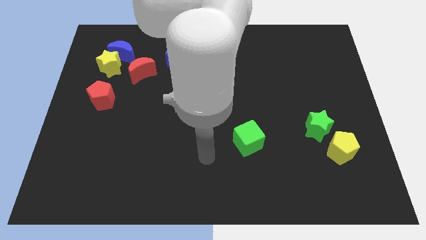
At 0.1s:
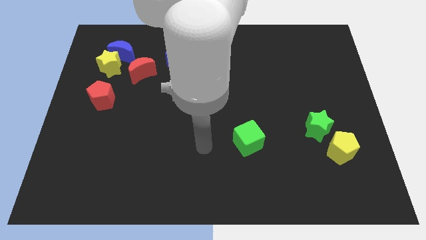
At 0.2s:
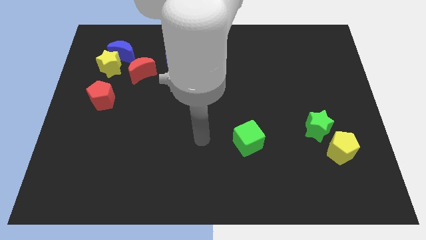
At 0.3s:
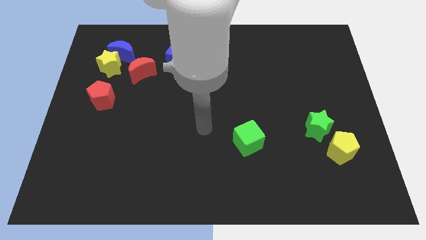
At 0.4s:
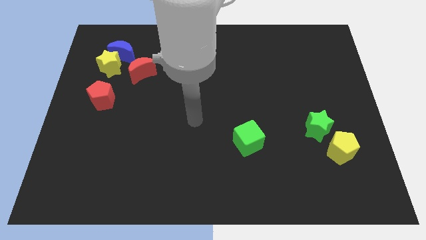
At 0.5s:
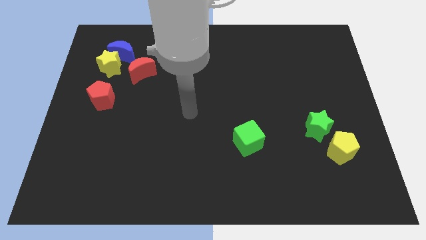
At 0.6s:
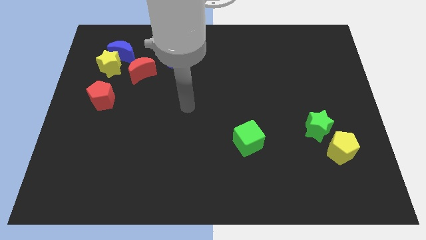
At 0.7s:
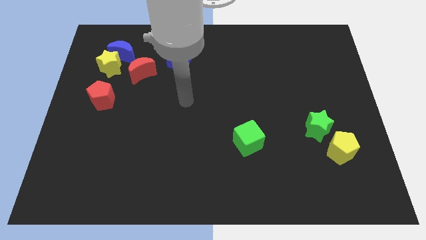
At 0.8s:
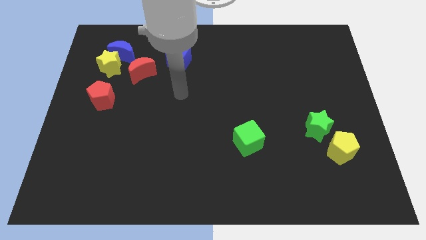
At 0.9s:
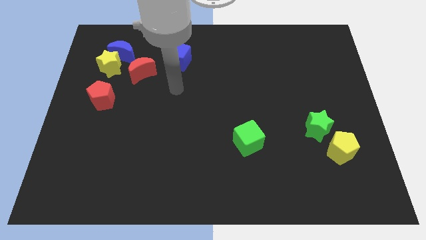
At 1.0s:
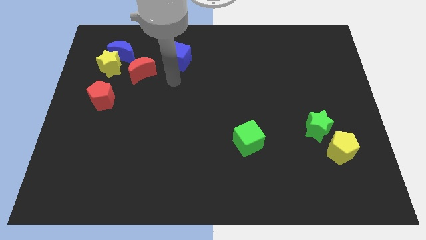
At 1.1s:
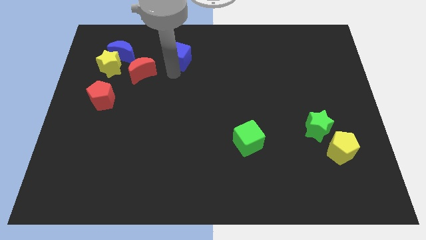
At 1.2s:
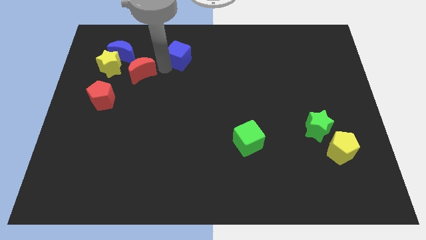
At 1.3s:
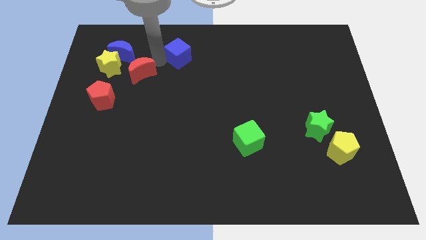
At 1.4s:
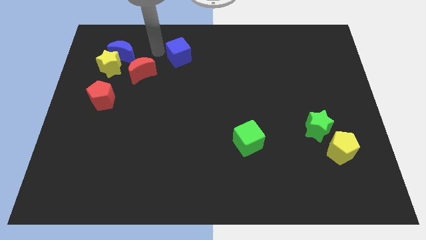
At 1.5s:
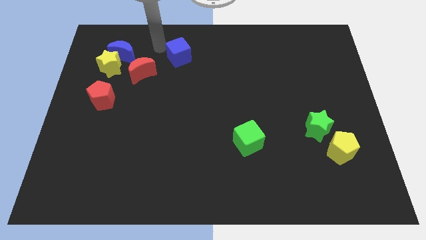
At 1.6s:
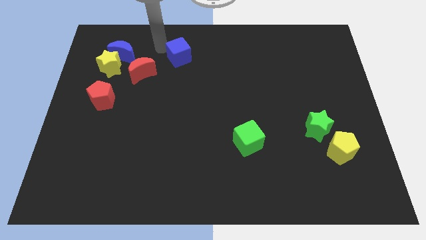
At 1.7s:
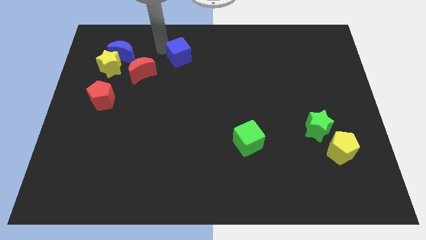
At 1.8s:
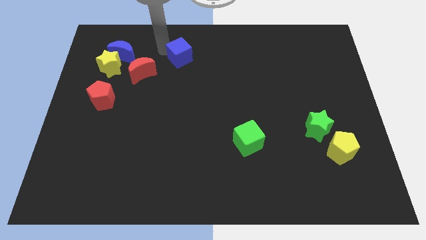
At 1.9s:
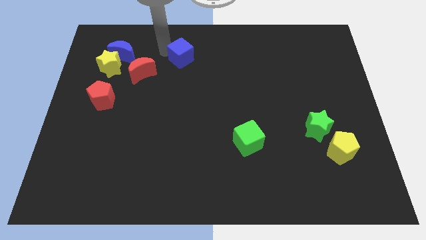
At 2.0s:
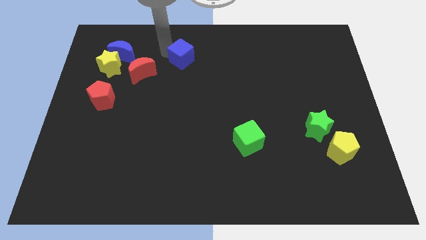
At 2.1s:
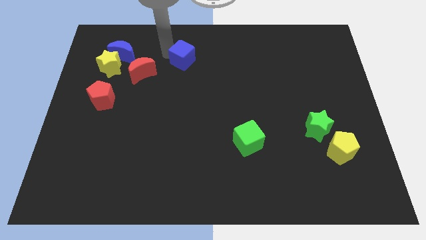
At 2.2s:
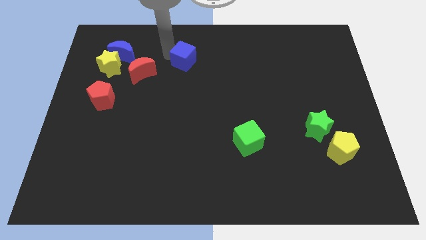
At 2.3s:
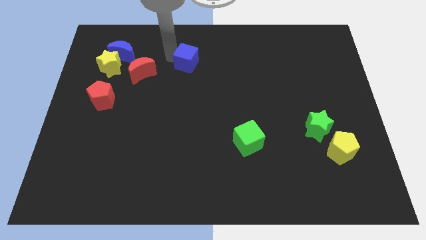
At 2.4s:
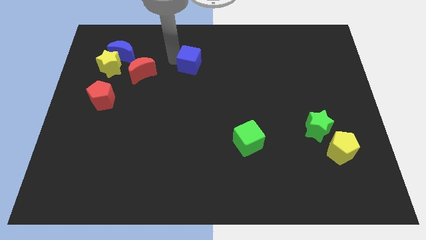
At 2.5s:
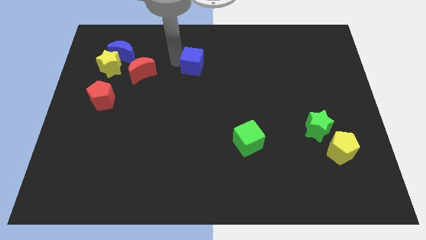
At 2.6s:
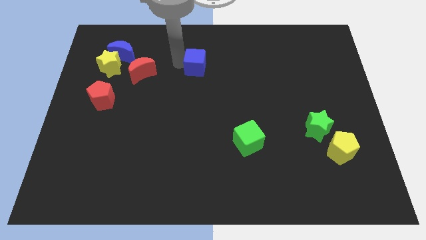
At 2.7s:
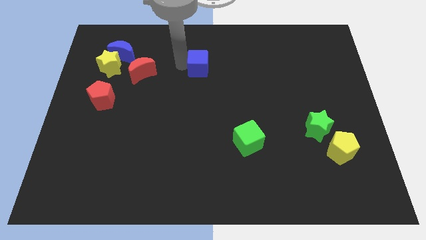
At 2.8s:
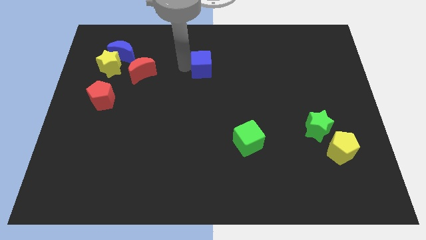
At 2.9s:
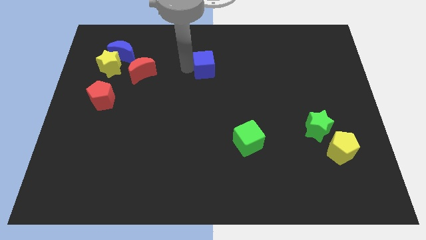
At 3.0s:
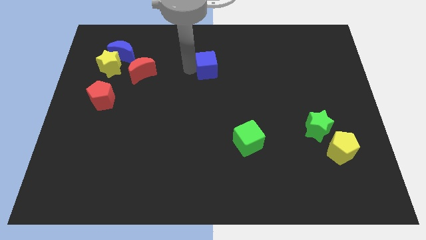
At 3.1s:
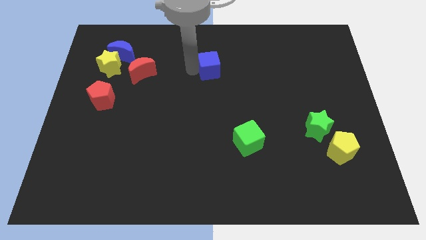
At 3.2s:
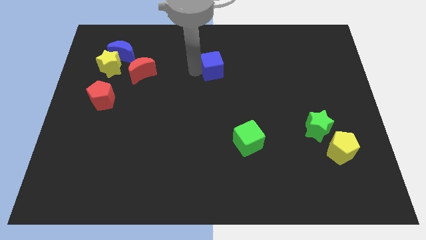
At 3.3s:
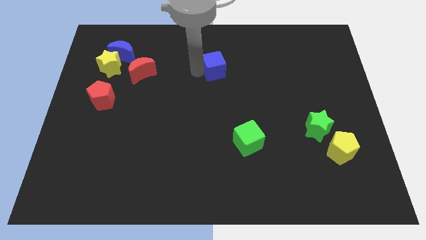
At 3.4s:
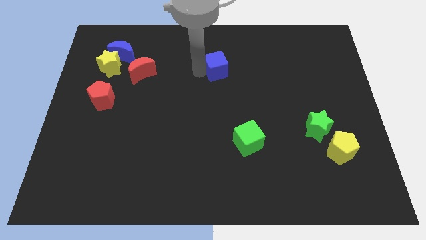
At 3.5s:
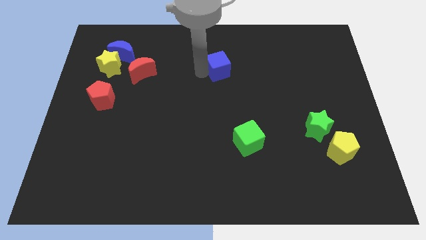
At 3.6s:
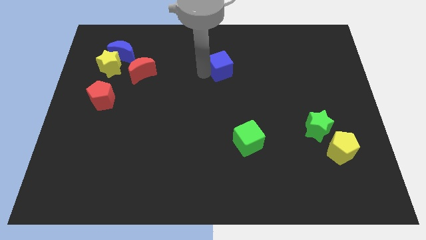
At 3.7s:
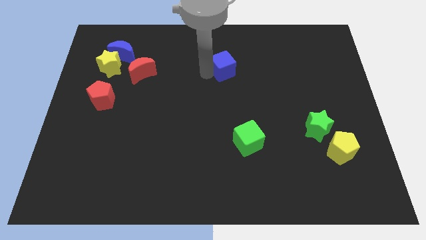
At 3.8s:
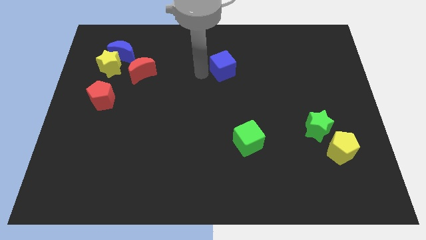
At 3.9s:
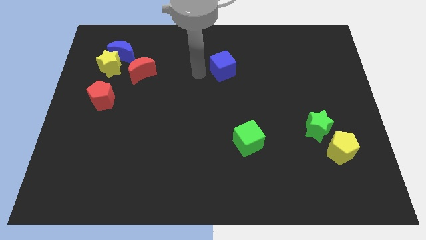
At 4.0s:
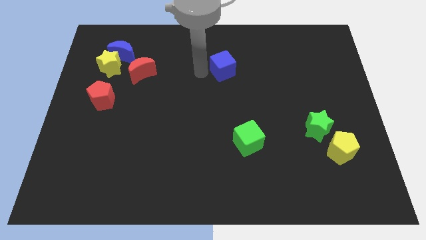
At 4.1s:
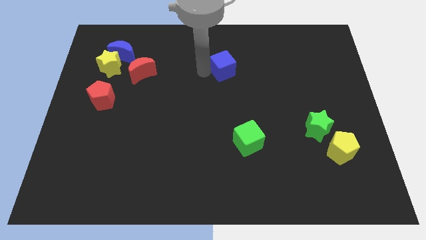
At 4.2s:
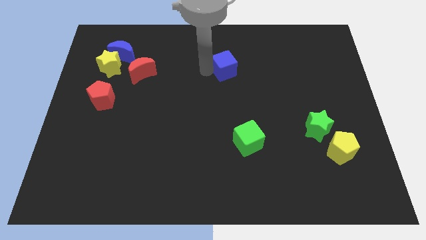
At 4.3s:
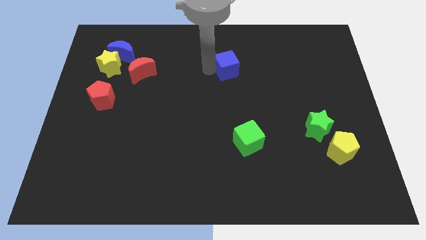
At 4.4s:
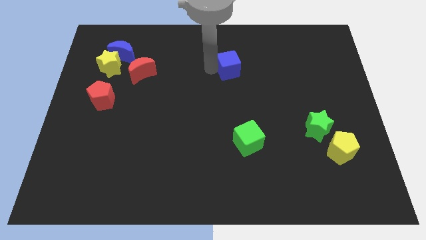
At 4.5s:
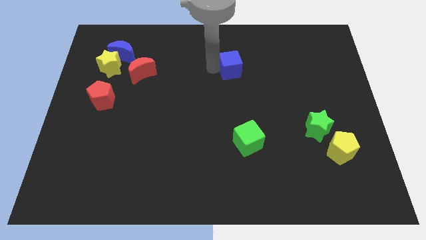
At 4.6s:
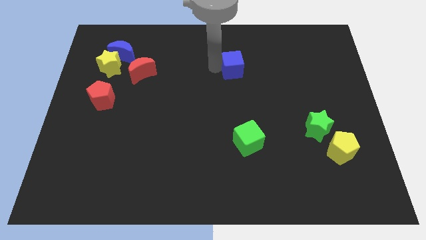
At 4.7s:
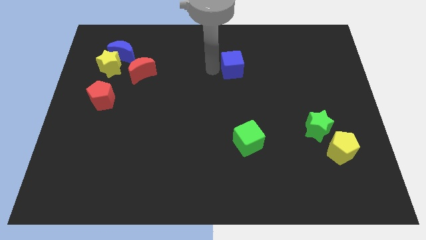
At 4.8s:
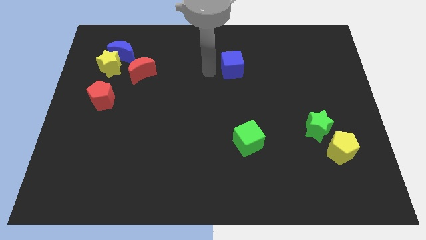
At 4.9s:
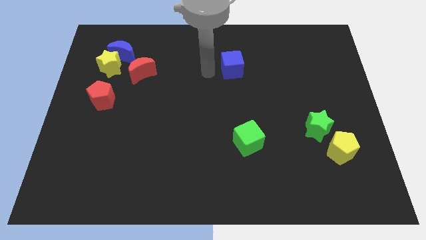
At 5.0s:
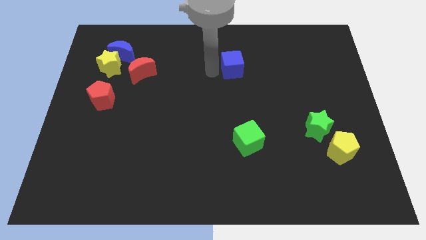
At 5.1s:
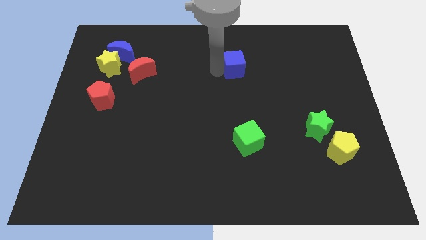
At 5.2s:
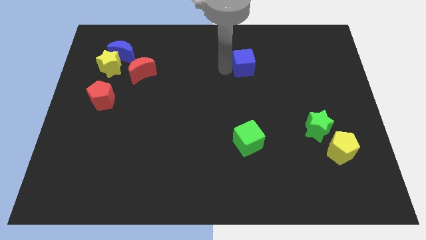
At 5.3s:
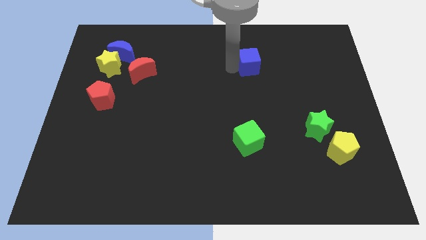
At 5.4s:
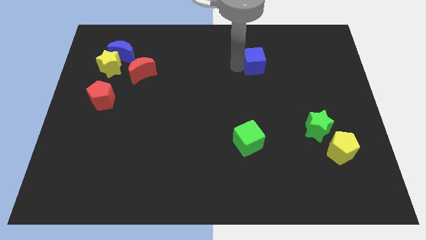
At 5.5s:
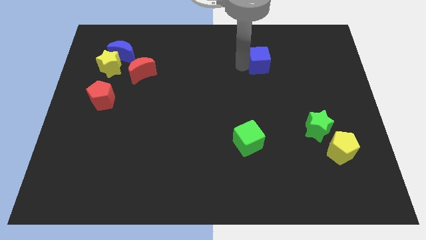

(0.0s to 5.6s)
push the blue cube to the right

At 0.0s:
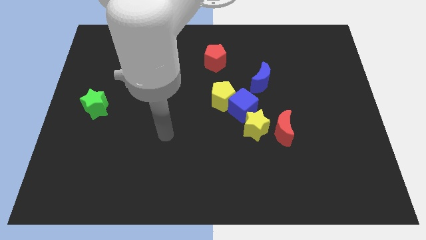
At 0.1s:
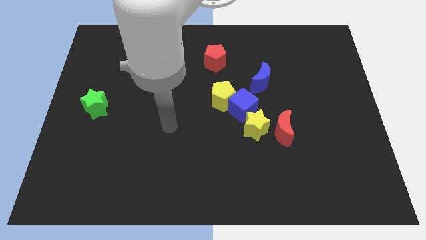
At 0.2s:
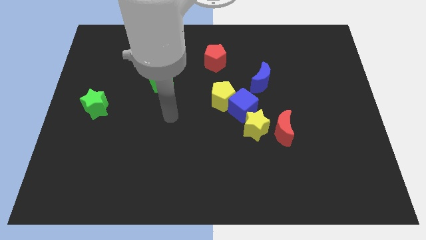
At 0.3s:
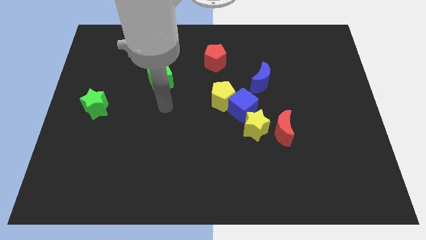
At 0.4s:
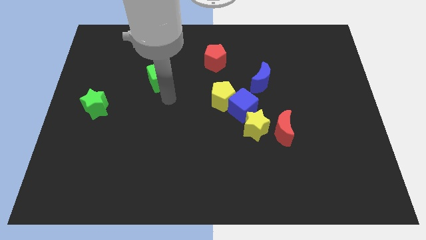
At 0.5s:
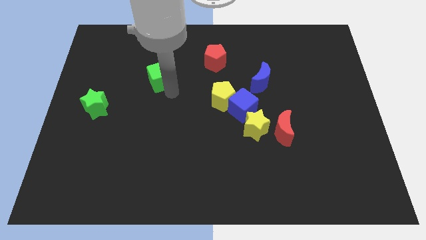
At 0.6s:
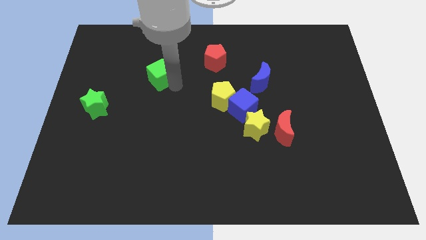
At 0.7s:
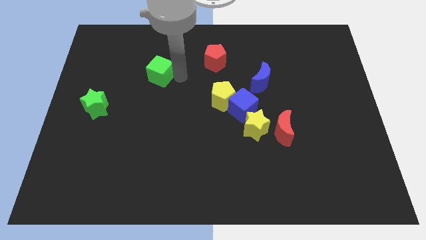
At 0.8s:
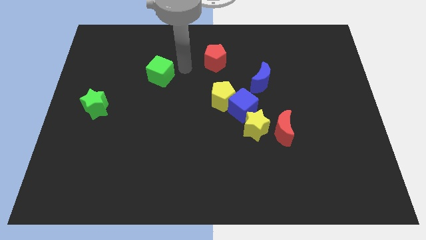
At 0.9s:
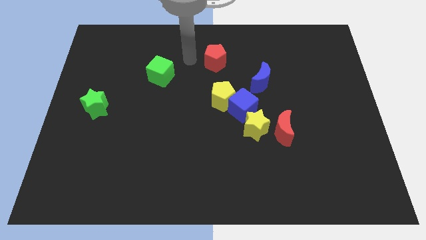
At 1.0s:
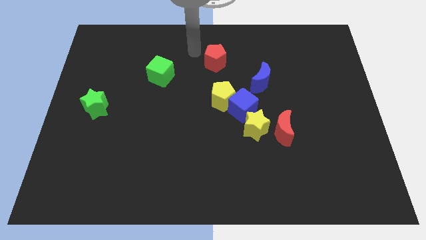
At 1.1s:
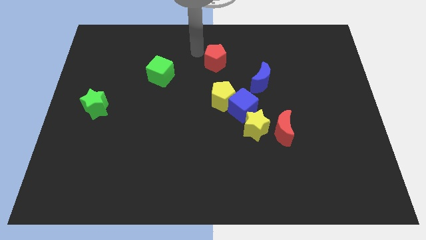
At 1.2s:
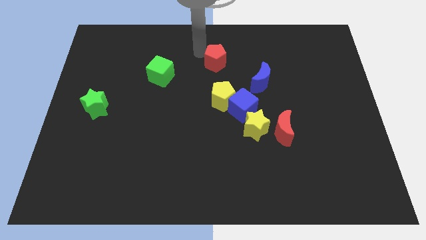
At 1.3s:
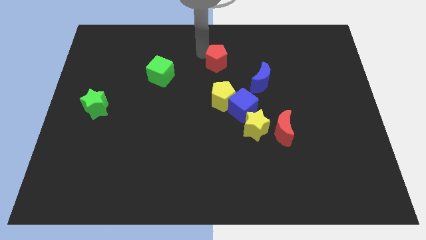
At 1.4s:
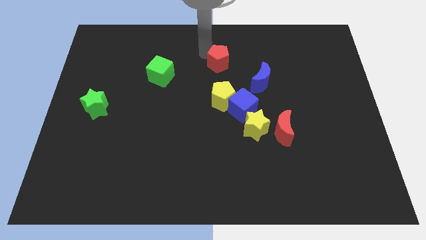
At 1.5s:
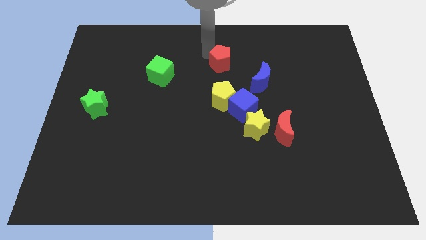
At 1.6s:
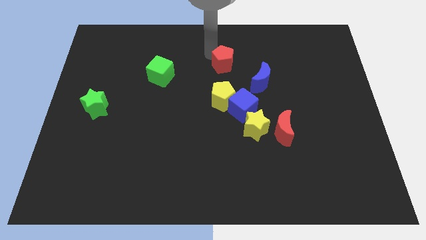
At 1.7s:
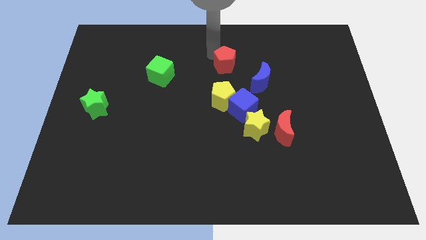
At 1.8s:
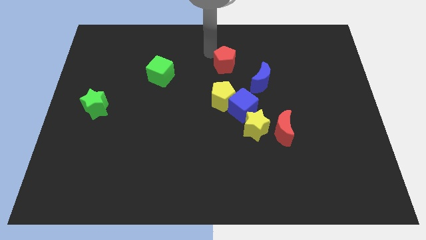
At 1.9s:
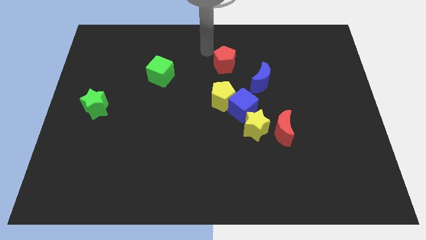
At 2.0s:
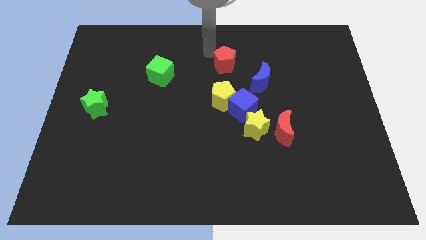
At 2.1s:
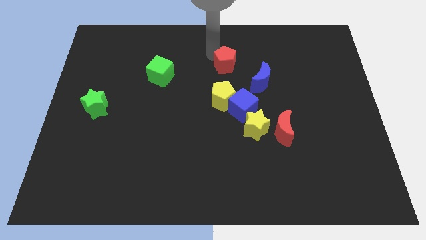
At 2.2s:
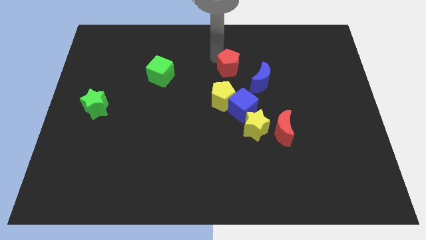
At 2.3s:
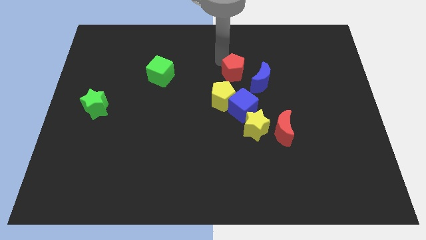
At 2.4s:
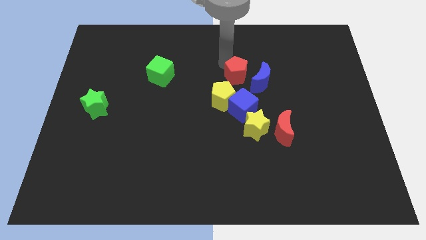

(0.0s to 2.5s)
slightly move the red pentagon down and to the right diagonally

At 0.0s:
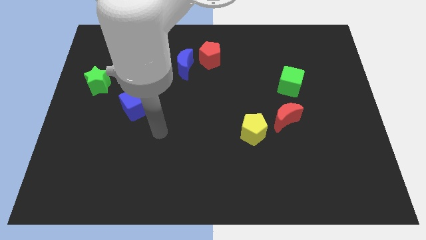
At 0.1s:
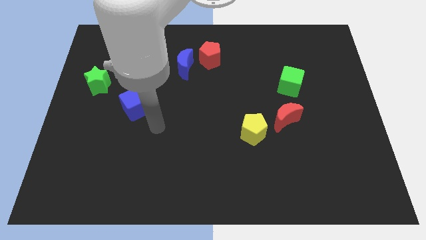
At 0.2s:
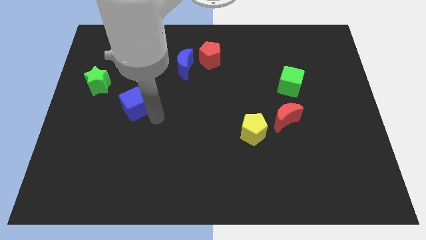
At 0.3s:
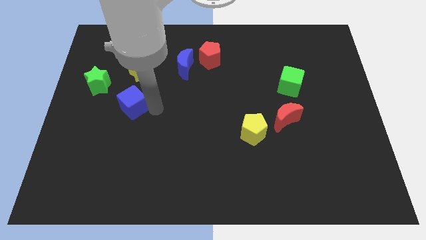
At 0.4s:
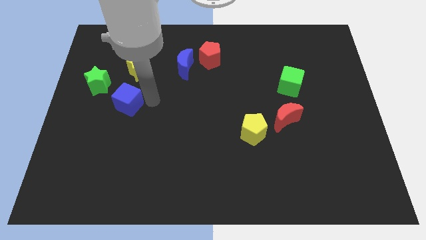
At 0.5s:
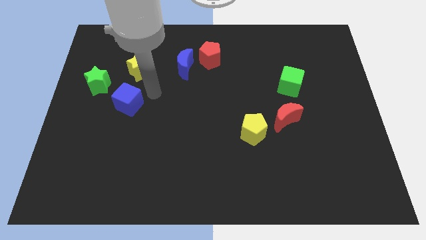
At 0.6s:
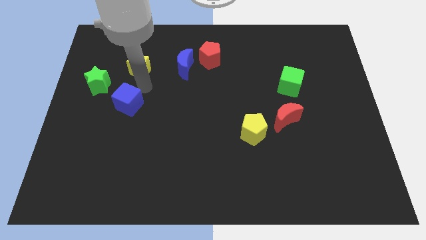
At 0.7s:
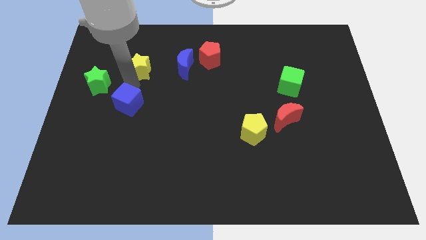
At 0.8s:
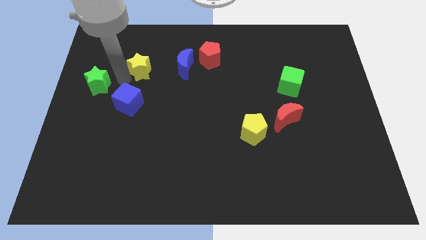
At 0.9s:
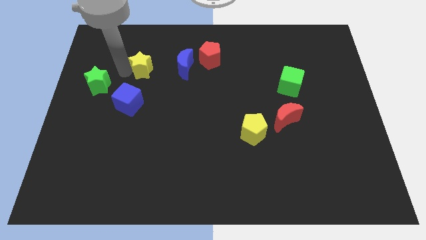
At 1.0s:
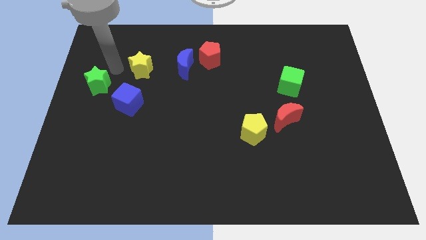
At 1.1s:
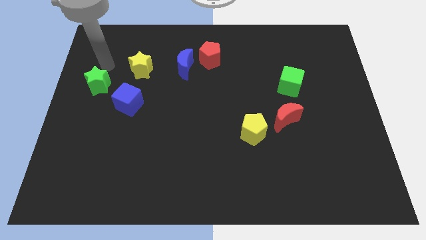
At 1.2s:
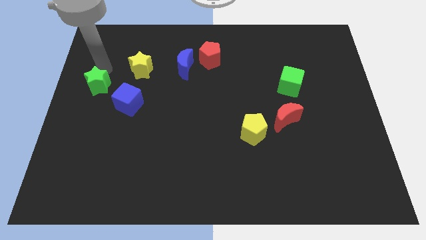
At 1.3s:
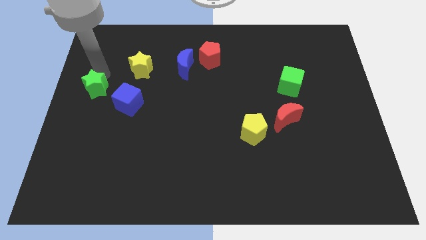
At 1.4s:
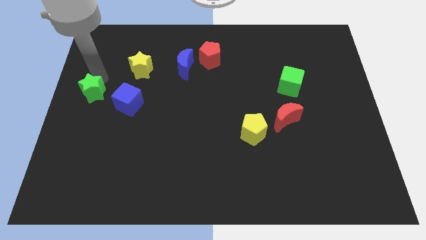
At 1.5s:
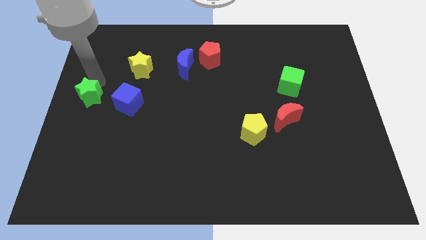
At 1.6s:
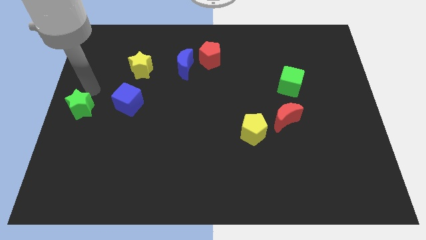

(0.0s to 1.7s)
push the green star slightly downwards
